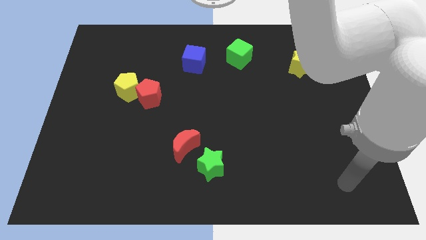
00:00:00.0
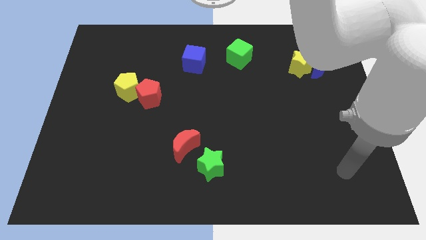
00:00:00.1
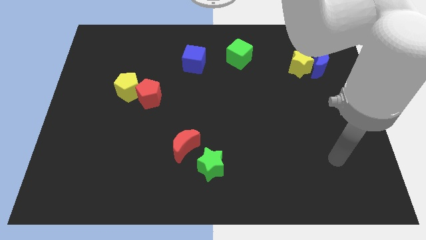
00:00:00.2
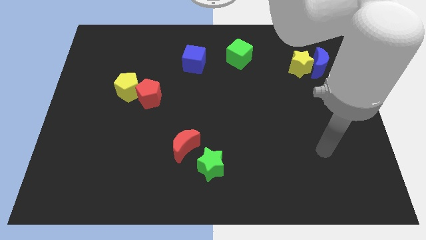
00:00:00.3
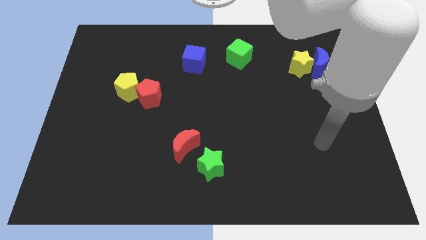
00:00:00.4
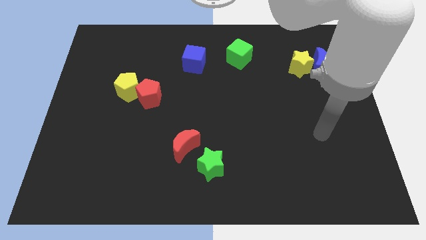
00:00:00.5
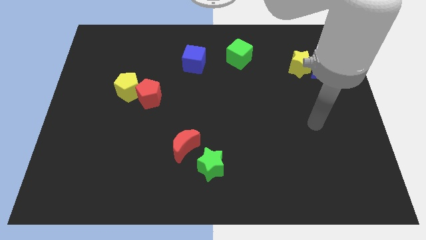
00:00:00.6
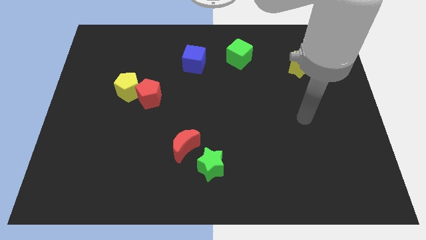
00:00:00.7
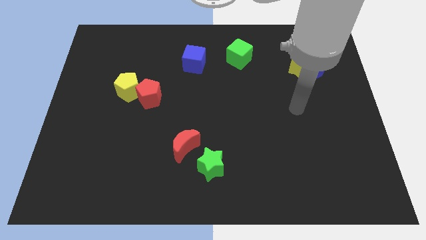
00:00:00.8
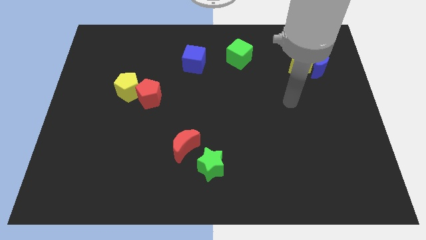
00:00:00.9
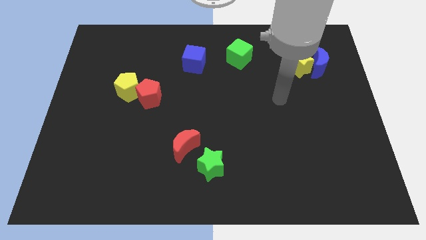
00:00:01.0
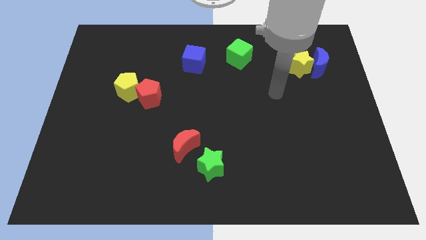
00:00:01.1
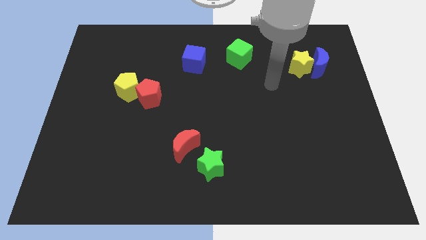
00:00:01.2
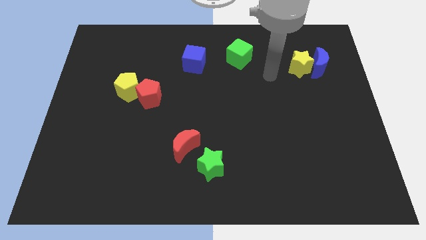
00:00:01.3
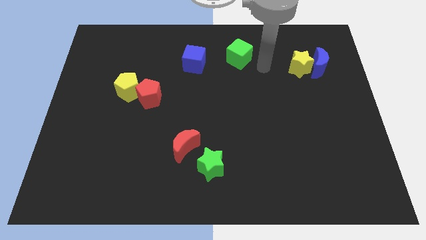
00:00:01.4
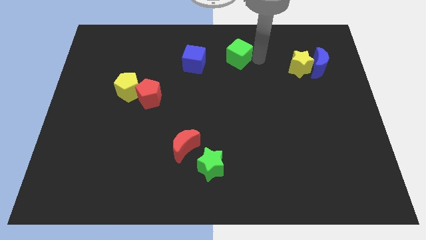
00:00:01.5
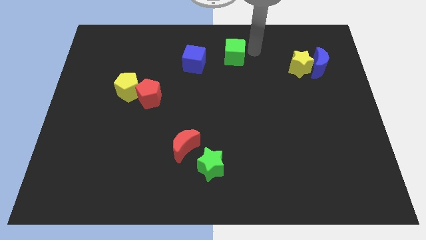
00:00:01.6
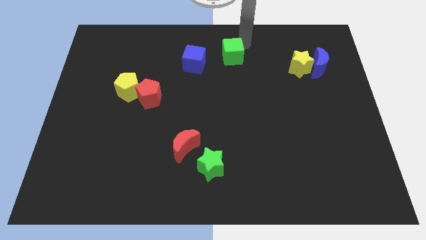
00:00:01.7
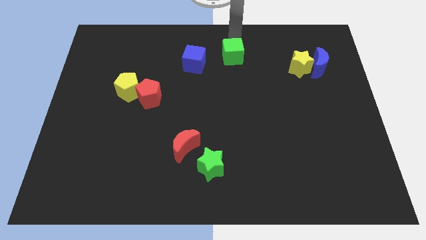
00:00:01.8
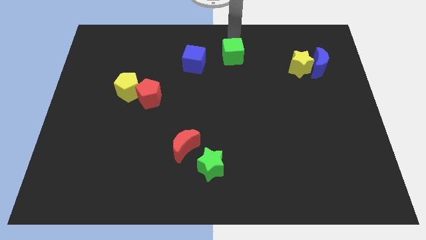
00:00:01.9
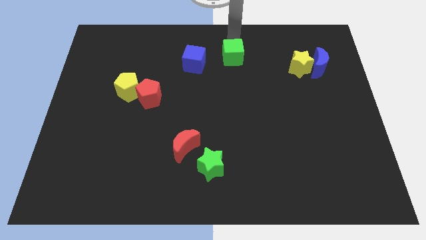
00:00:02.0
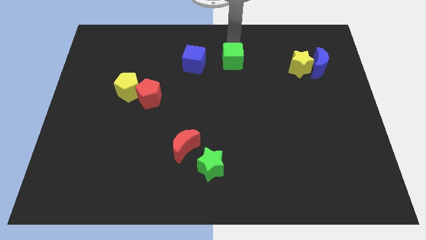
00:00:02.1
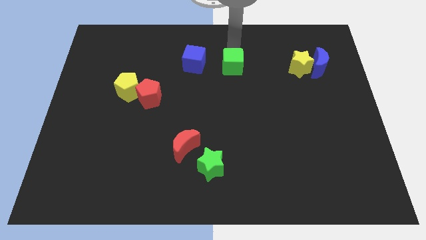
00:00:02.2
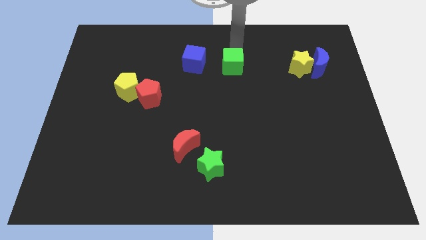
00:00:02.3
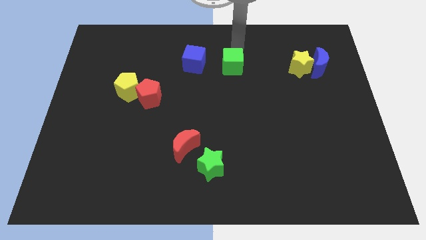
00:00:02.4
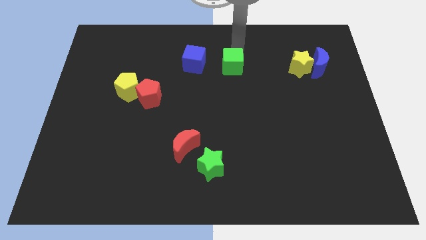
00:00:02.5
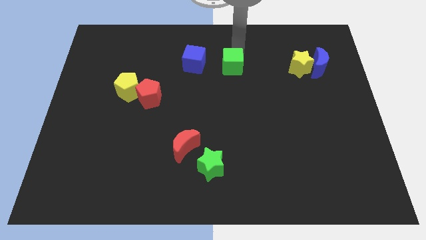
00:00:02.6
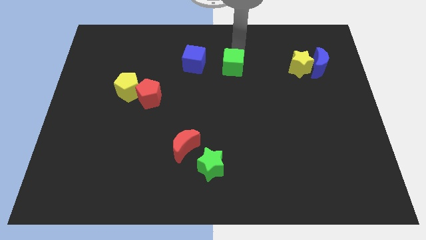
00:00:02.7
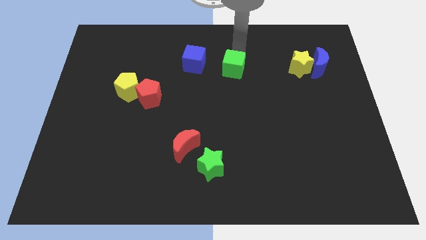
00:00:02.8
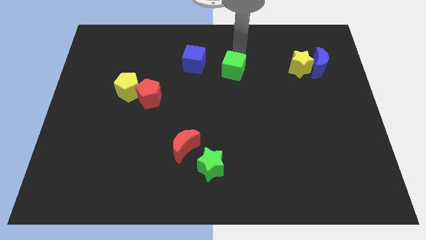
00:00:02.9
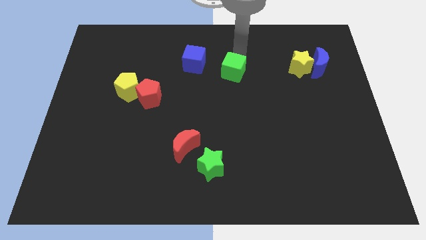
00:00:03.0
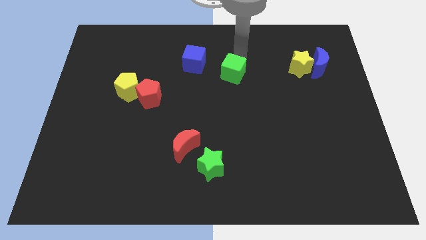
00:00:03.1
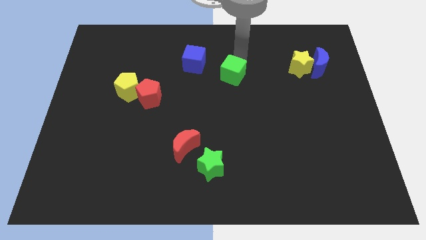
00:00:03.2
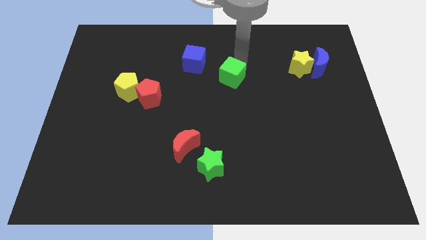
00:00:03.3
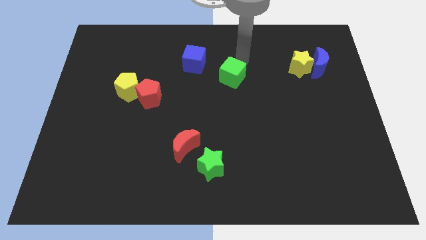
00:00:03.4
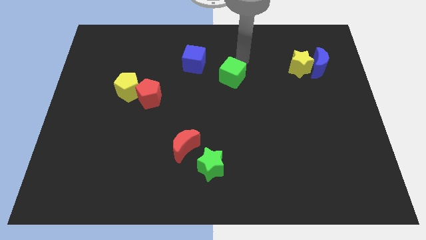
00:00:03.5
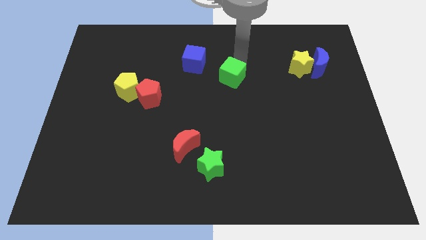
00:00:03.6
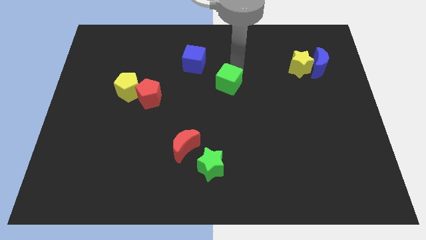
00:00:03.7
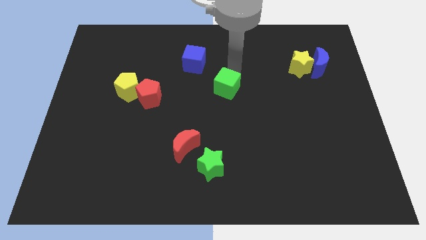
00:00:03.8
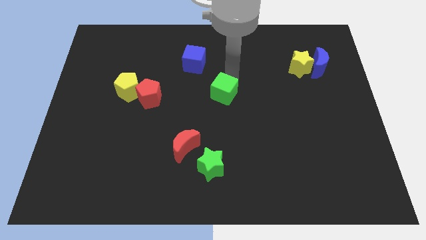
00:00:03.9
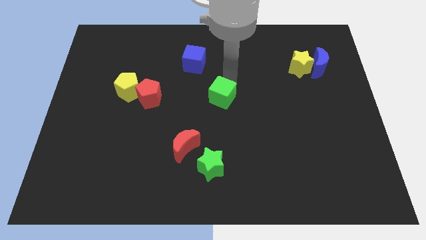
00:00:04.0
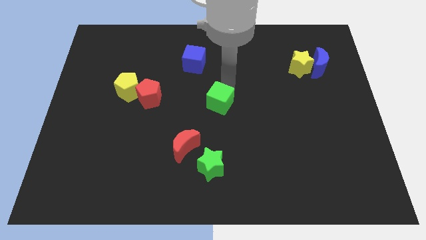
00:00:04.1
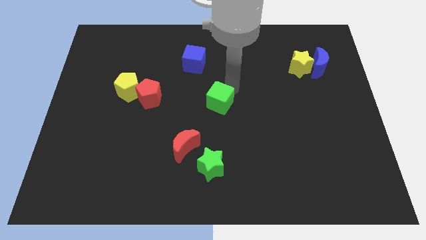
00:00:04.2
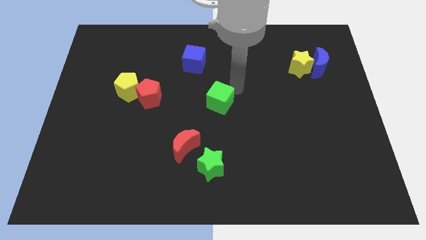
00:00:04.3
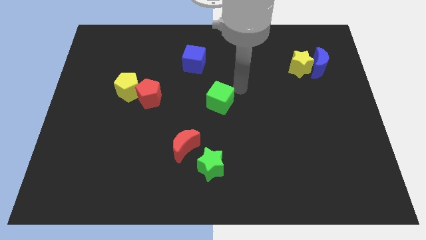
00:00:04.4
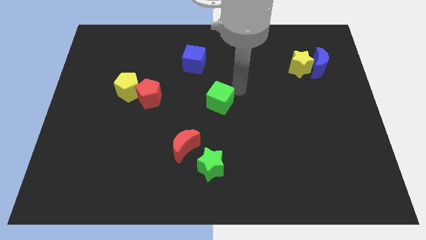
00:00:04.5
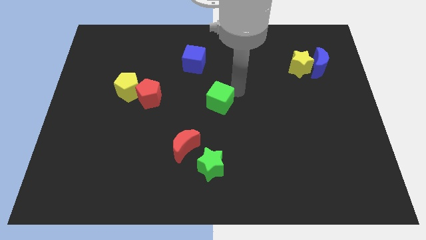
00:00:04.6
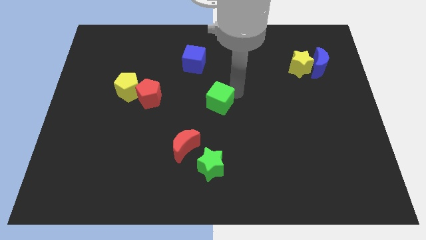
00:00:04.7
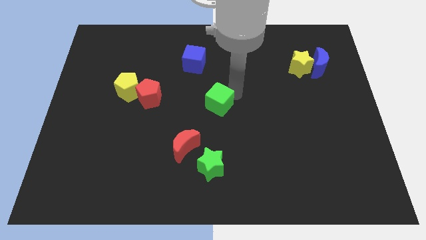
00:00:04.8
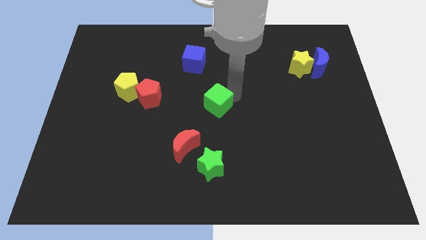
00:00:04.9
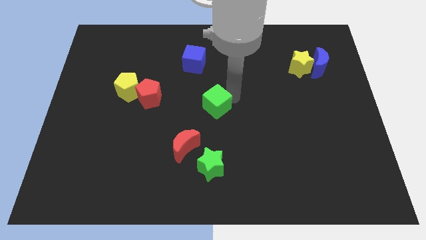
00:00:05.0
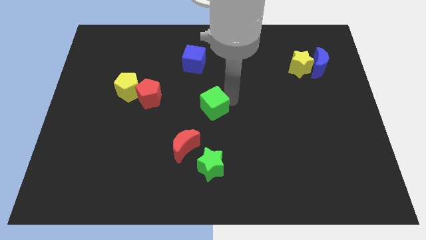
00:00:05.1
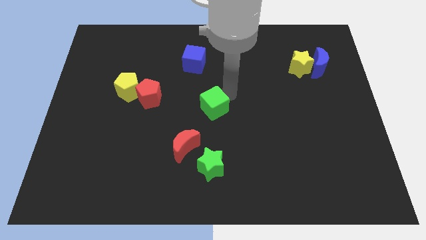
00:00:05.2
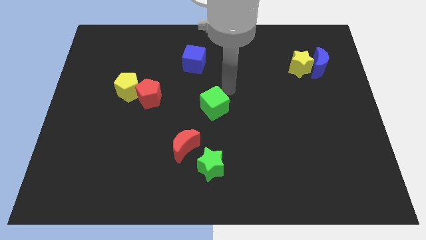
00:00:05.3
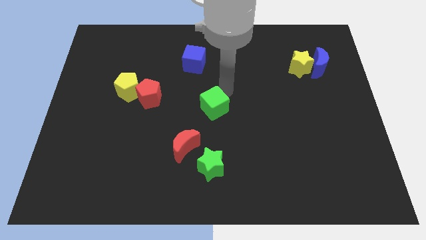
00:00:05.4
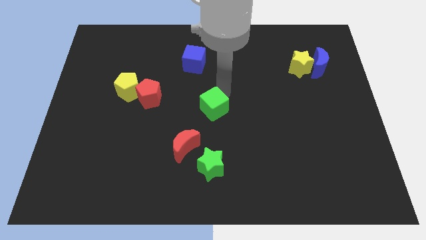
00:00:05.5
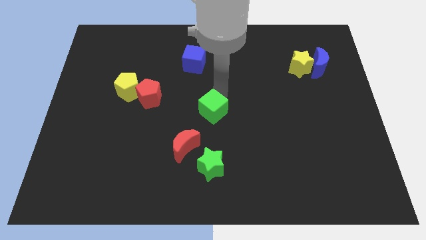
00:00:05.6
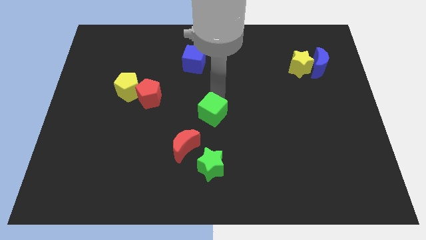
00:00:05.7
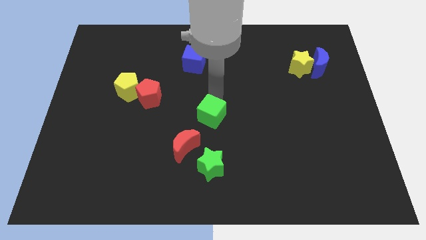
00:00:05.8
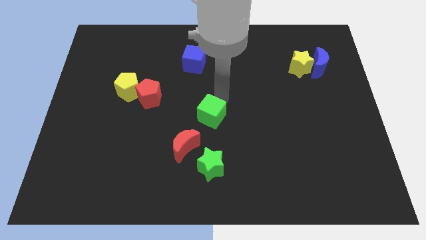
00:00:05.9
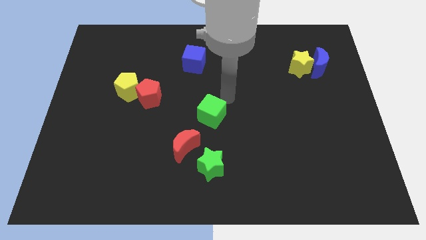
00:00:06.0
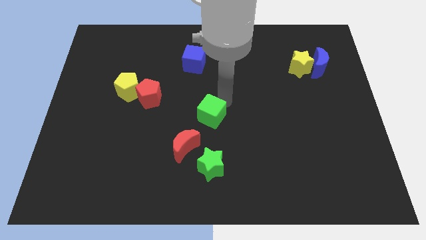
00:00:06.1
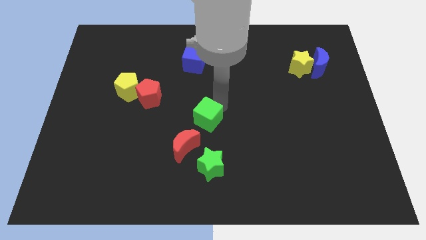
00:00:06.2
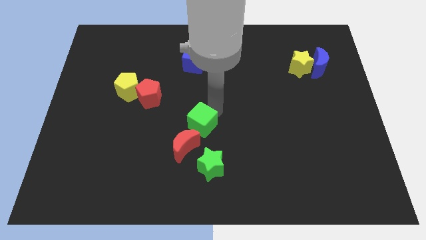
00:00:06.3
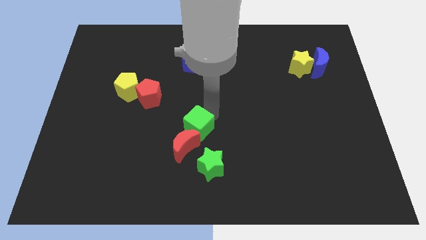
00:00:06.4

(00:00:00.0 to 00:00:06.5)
put the green cube close to the red moon

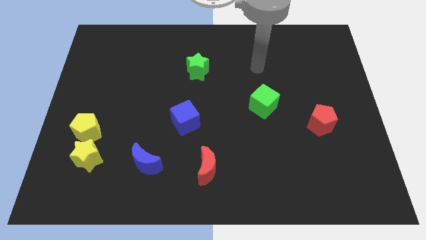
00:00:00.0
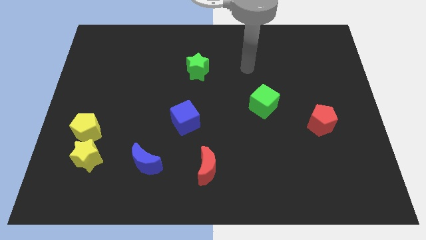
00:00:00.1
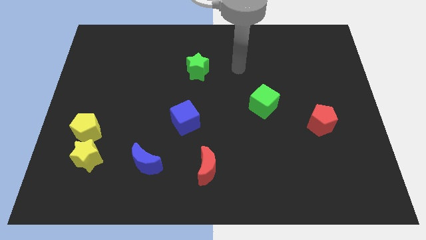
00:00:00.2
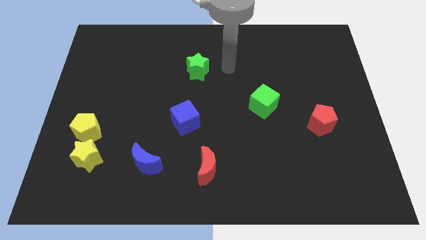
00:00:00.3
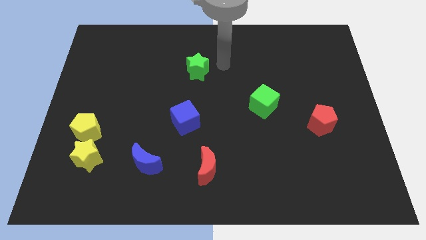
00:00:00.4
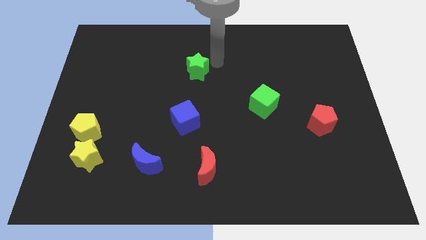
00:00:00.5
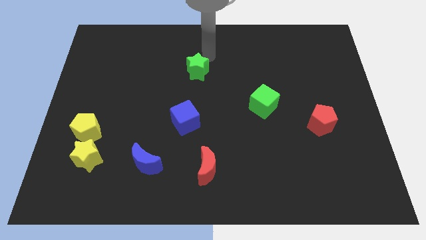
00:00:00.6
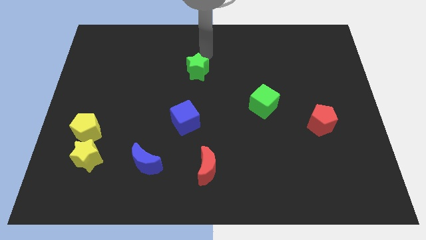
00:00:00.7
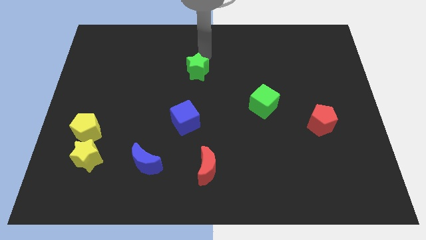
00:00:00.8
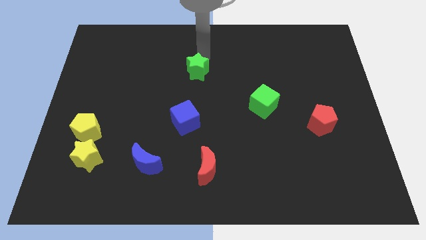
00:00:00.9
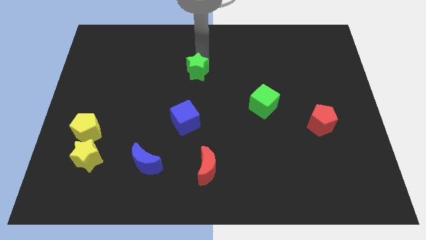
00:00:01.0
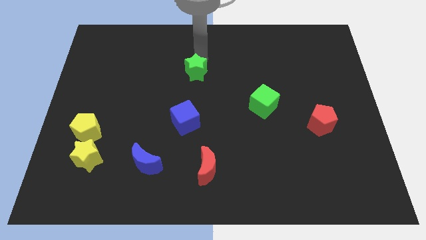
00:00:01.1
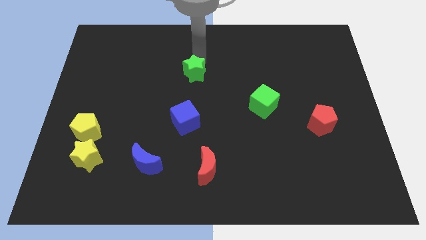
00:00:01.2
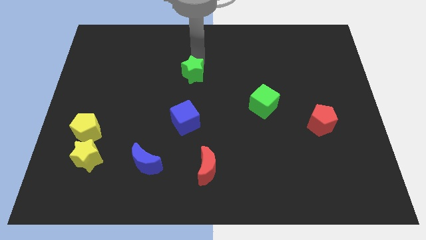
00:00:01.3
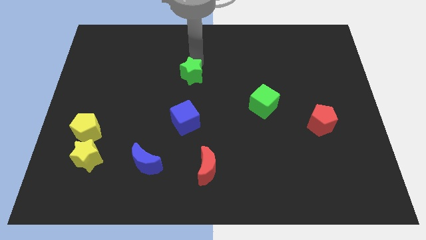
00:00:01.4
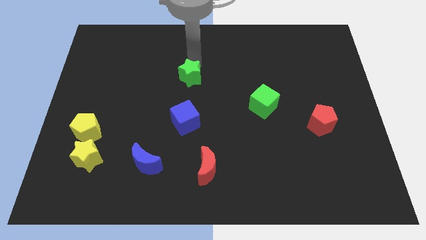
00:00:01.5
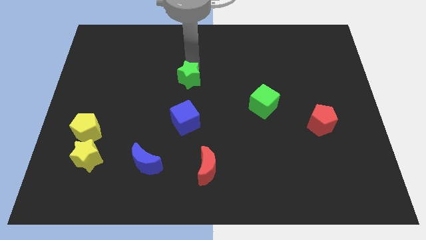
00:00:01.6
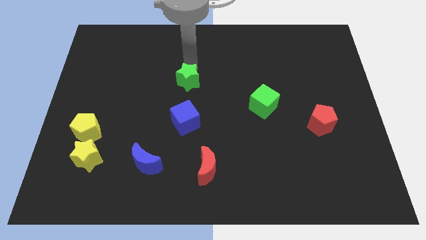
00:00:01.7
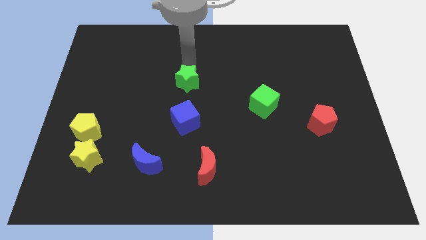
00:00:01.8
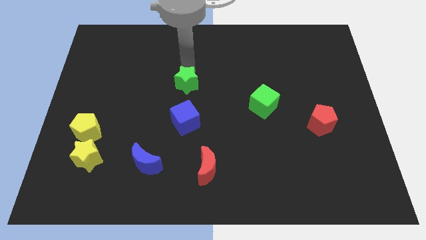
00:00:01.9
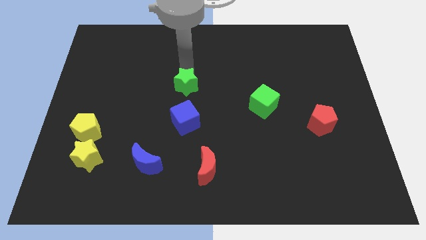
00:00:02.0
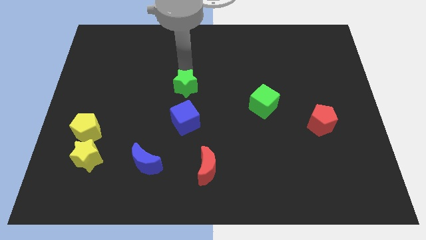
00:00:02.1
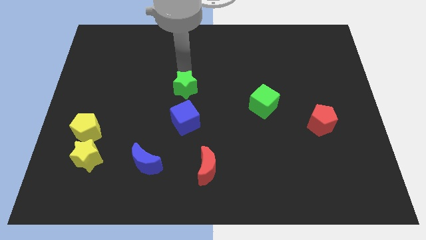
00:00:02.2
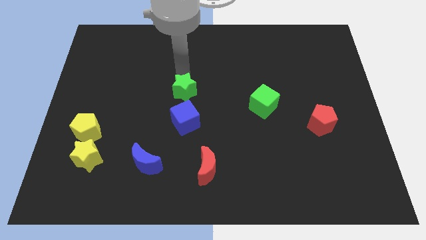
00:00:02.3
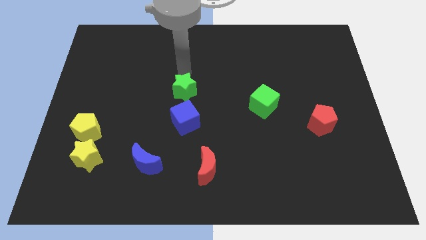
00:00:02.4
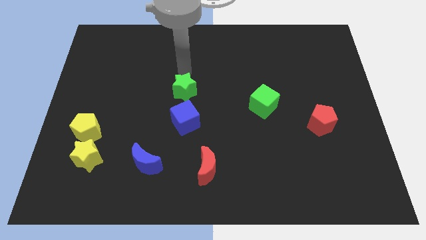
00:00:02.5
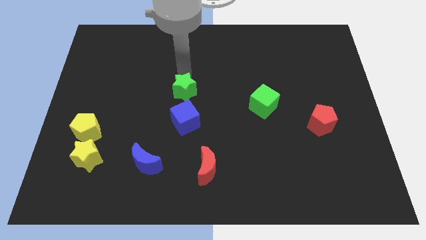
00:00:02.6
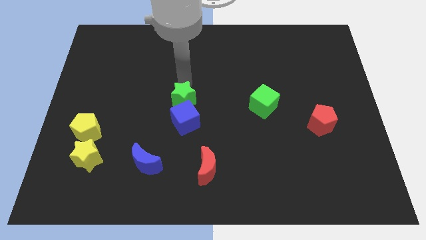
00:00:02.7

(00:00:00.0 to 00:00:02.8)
slide the green star towards the blue cube
